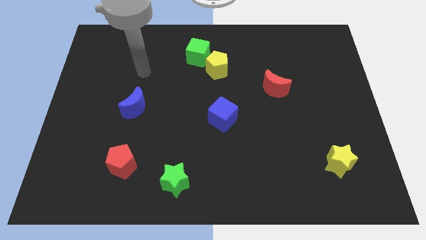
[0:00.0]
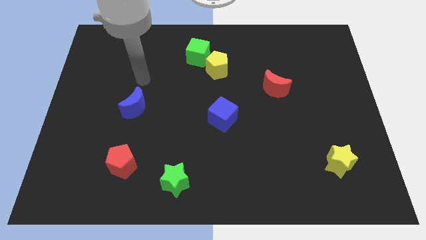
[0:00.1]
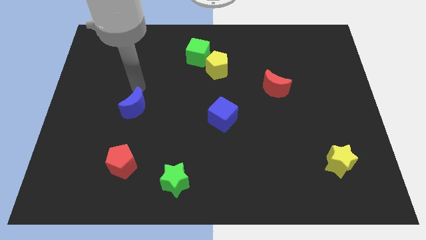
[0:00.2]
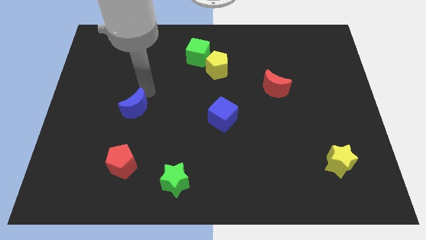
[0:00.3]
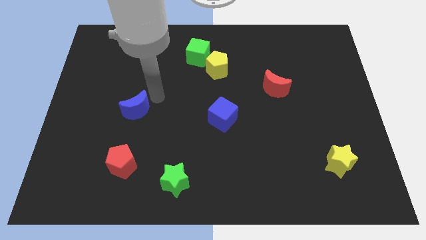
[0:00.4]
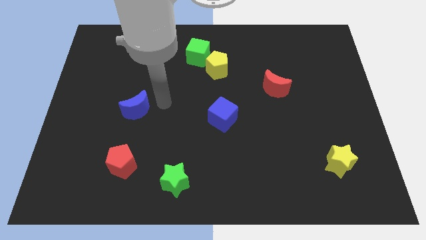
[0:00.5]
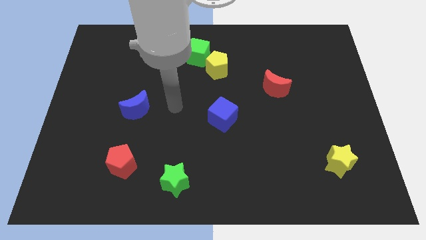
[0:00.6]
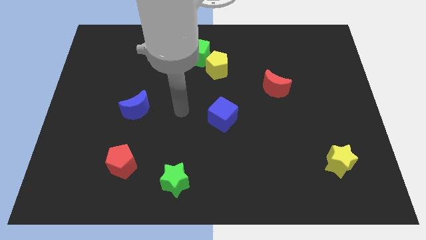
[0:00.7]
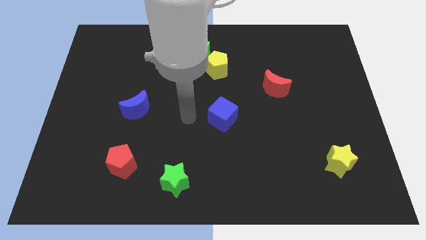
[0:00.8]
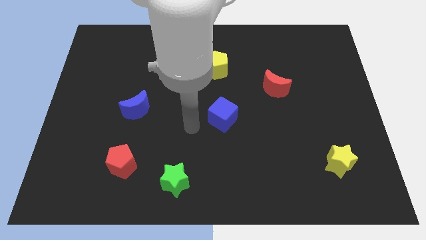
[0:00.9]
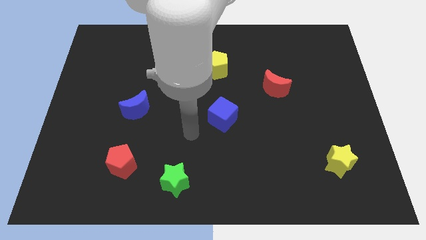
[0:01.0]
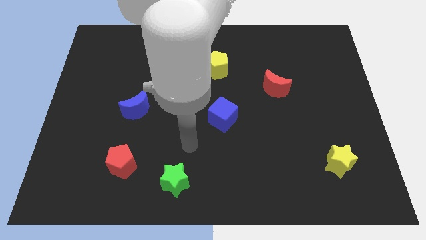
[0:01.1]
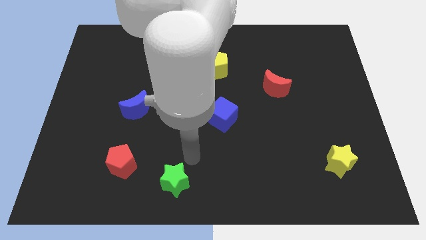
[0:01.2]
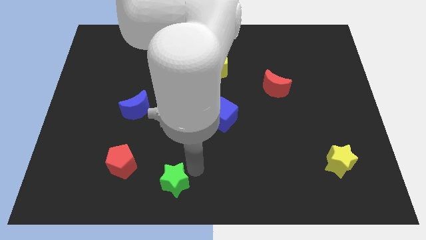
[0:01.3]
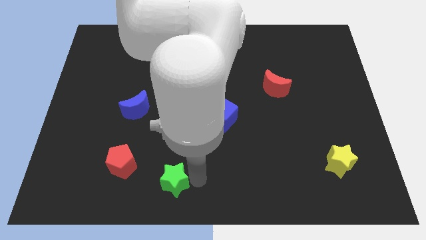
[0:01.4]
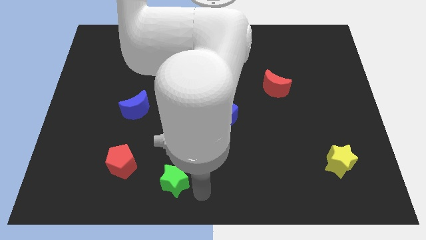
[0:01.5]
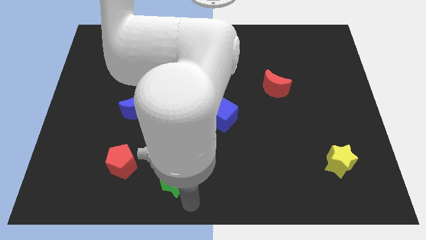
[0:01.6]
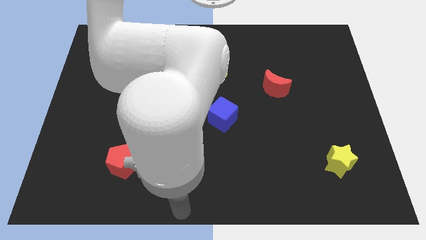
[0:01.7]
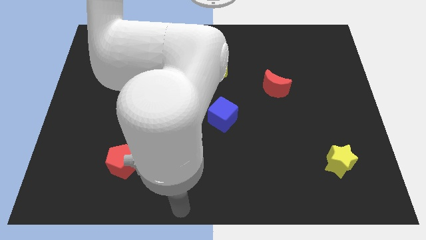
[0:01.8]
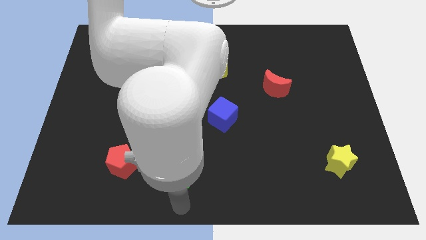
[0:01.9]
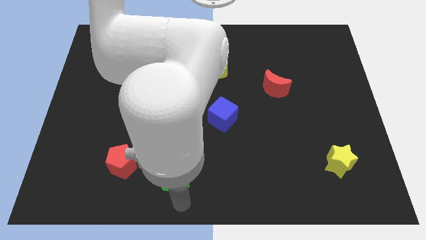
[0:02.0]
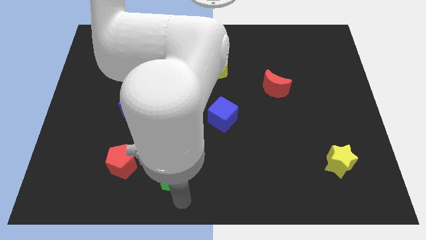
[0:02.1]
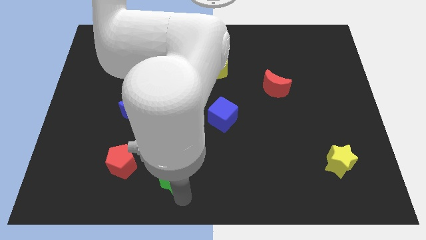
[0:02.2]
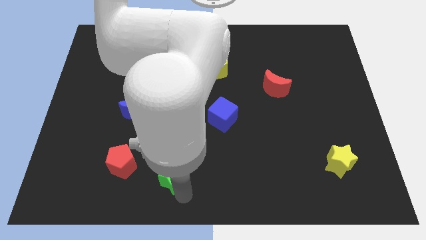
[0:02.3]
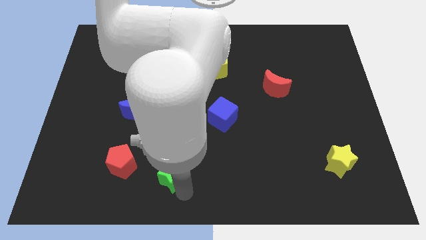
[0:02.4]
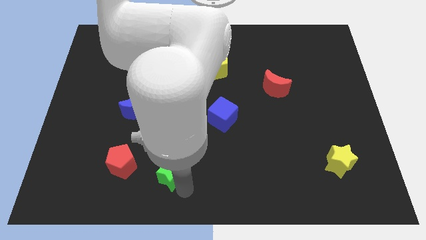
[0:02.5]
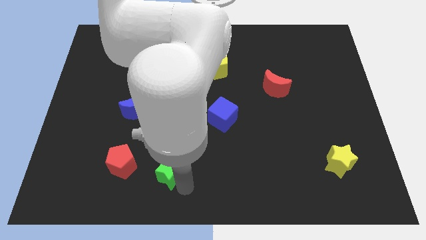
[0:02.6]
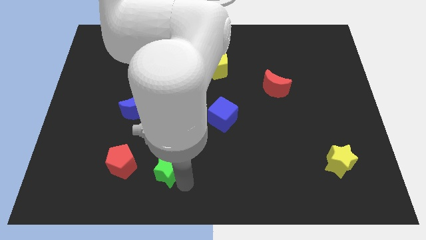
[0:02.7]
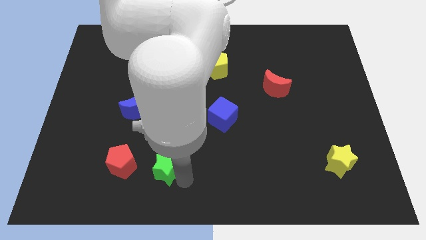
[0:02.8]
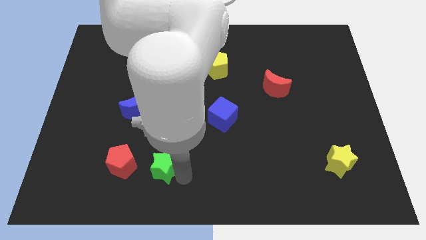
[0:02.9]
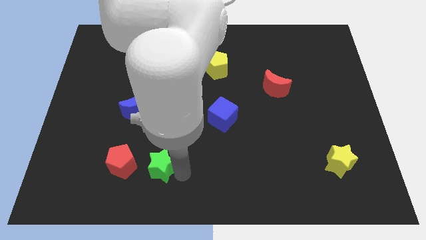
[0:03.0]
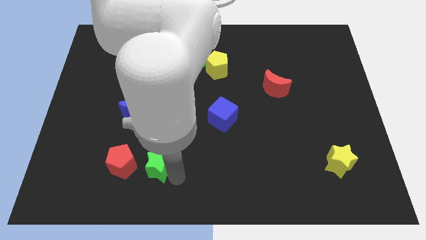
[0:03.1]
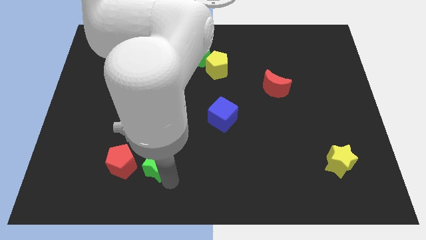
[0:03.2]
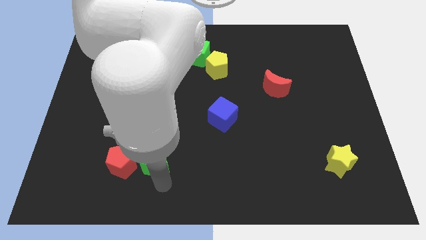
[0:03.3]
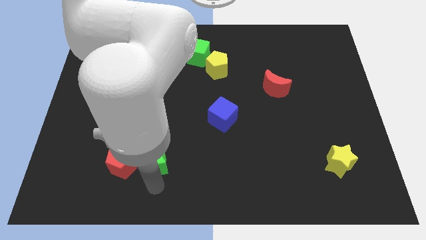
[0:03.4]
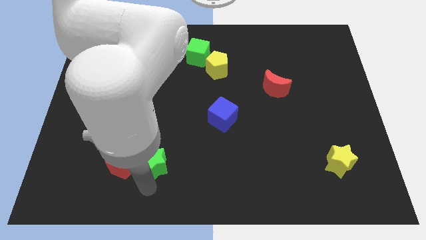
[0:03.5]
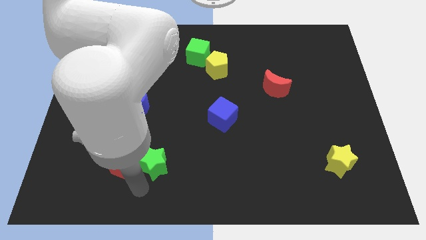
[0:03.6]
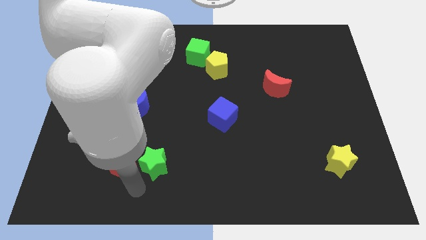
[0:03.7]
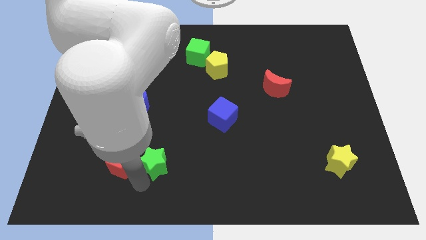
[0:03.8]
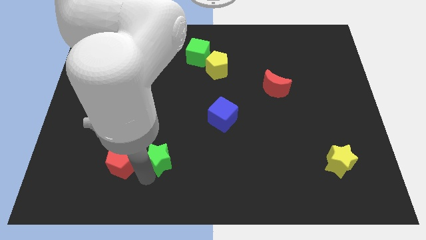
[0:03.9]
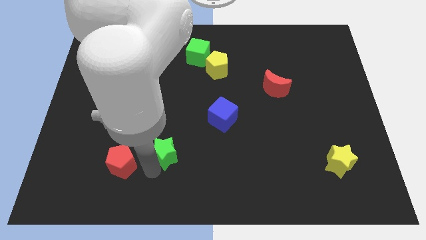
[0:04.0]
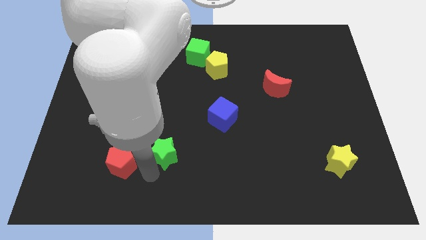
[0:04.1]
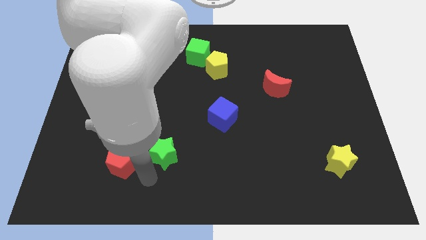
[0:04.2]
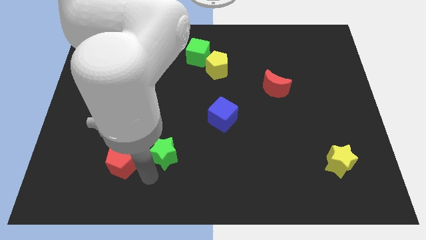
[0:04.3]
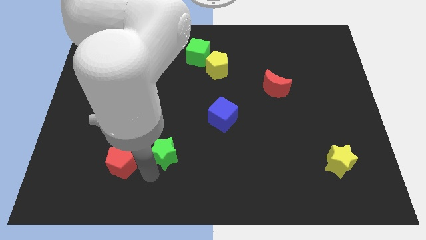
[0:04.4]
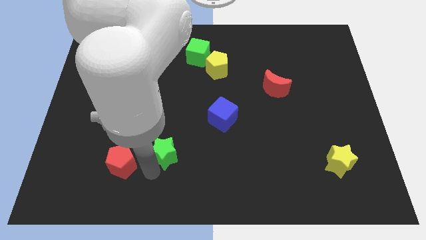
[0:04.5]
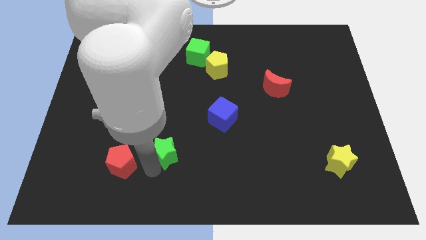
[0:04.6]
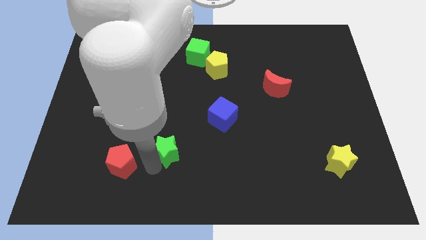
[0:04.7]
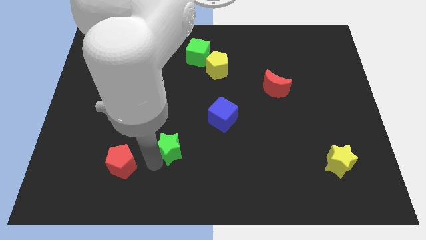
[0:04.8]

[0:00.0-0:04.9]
slightly slide the green star up

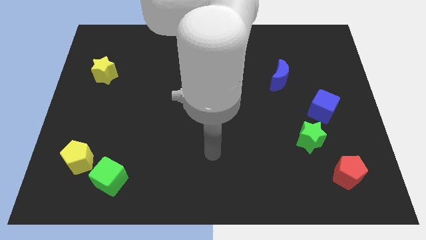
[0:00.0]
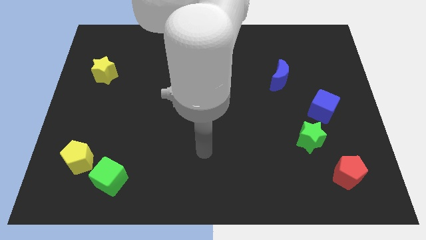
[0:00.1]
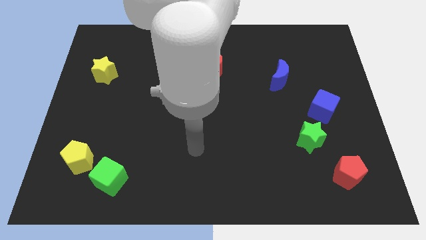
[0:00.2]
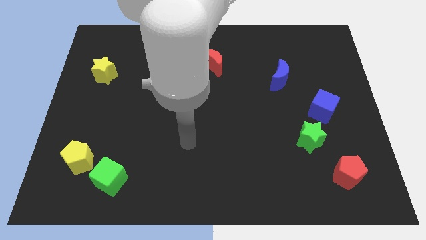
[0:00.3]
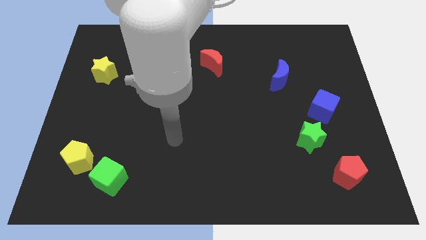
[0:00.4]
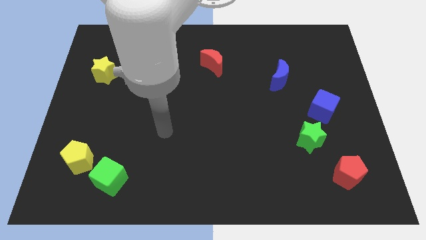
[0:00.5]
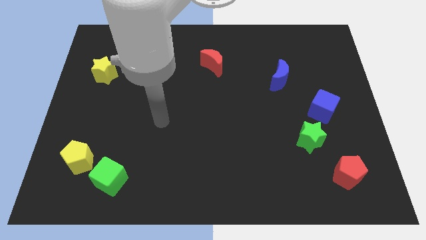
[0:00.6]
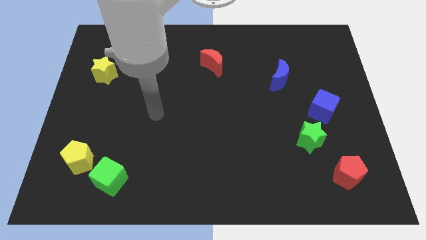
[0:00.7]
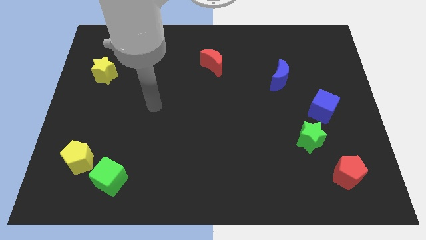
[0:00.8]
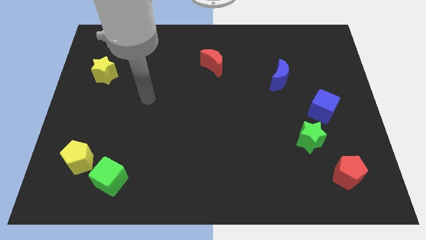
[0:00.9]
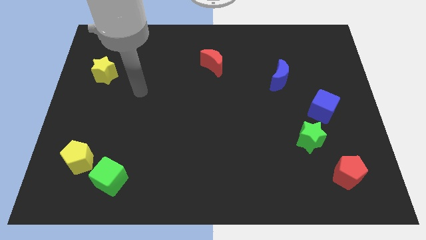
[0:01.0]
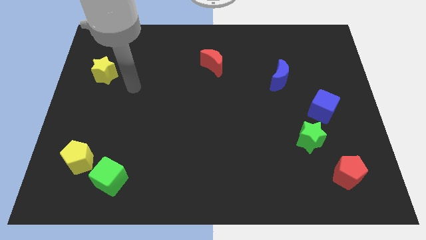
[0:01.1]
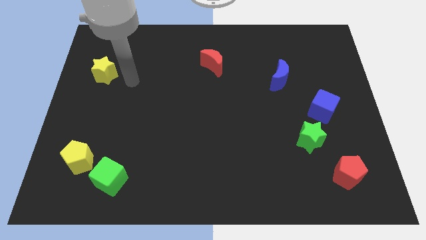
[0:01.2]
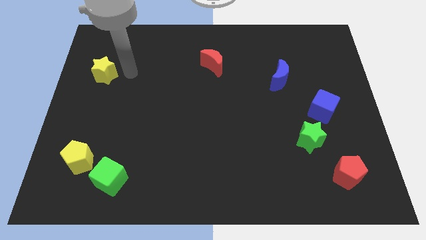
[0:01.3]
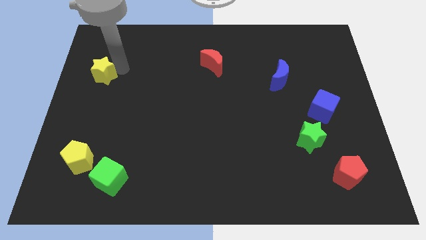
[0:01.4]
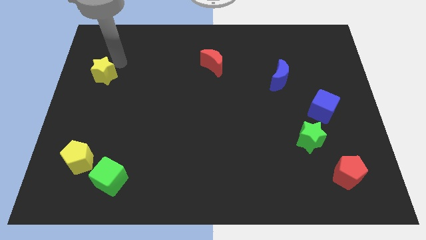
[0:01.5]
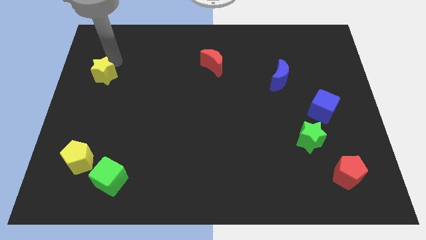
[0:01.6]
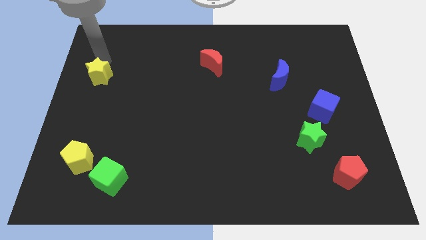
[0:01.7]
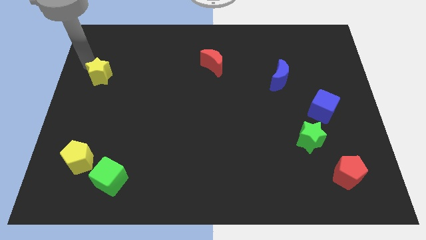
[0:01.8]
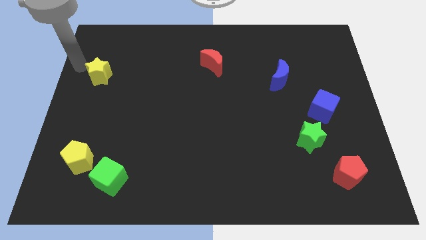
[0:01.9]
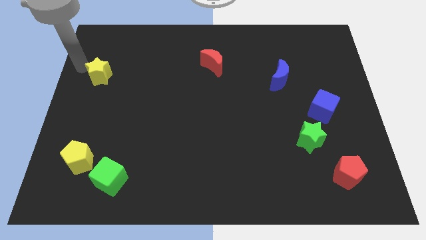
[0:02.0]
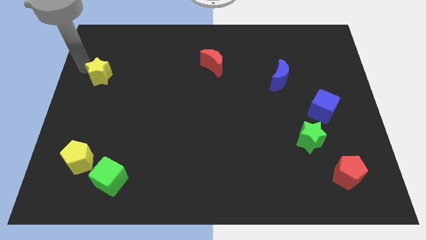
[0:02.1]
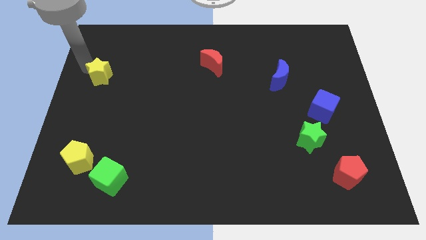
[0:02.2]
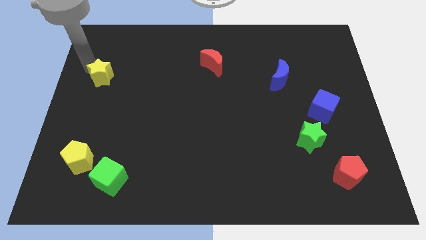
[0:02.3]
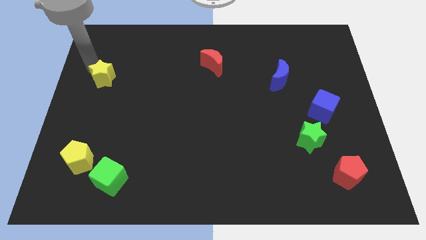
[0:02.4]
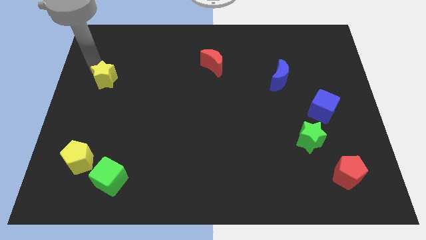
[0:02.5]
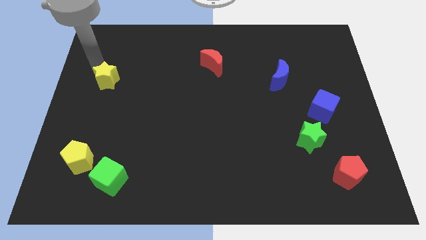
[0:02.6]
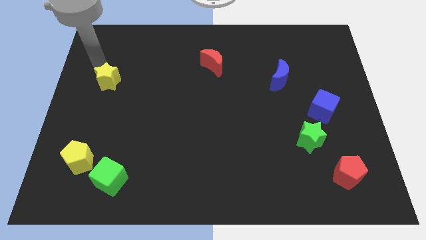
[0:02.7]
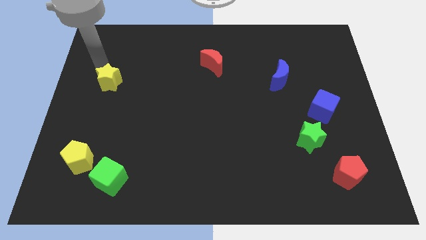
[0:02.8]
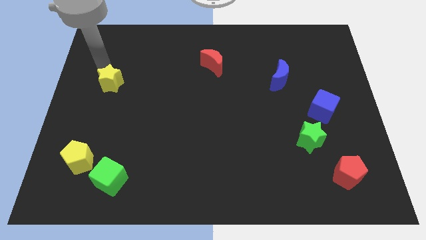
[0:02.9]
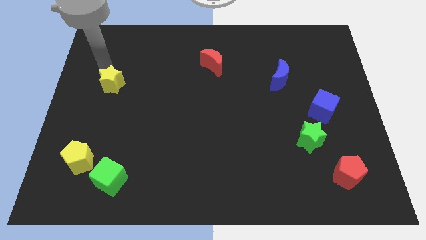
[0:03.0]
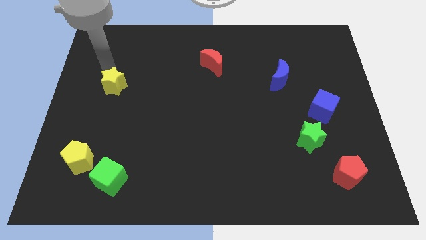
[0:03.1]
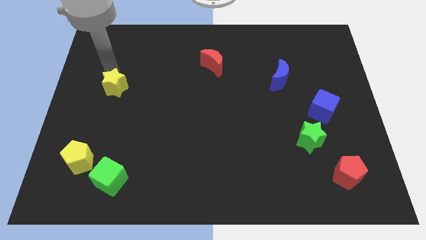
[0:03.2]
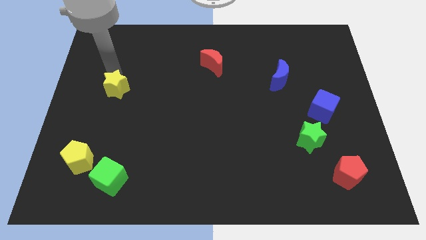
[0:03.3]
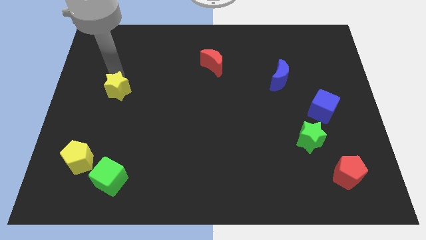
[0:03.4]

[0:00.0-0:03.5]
slightly slide the yellow star diagonally downwards and right
